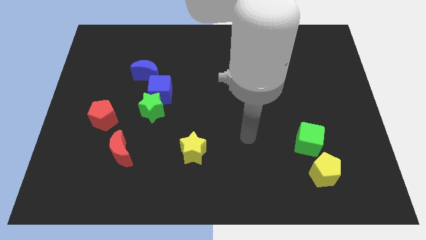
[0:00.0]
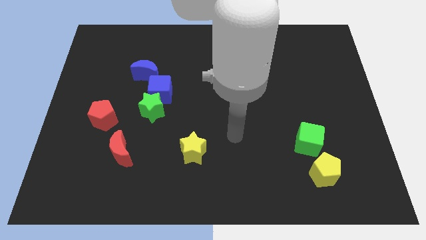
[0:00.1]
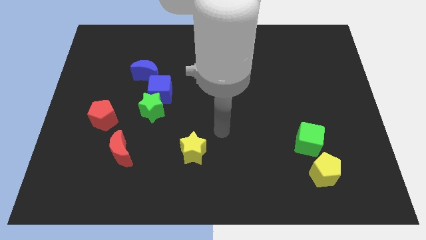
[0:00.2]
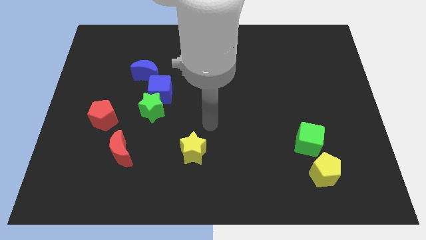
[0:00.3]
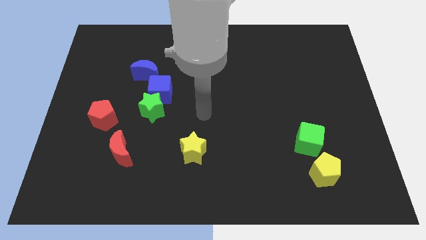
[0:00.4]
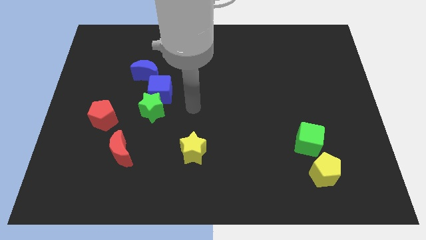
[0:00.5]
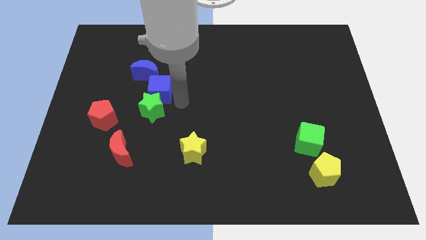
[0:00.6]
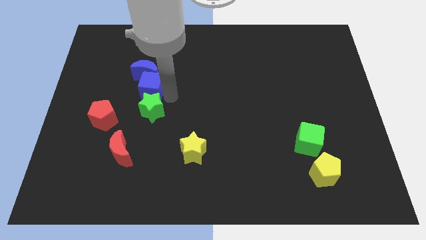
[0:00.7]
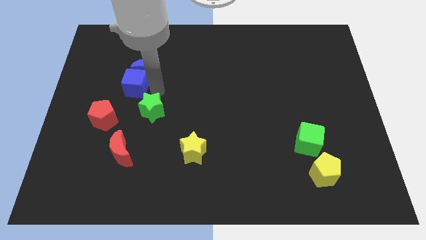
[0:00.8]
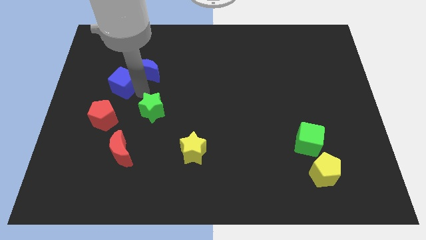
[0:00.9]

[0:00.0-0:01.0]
pull the green star apart from the blue cube

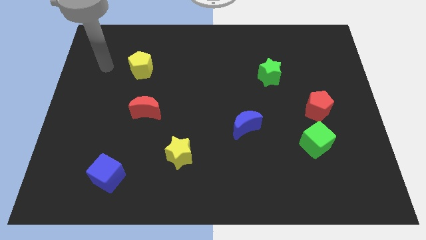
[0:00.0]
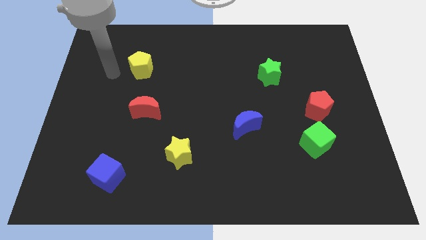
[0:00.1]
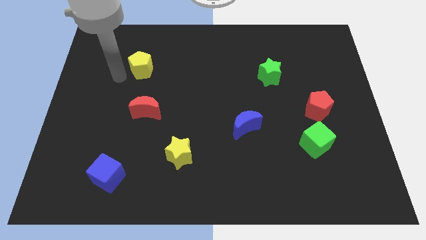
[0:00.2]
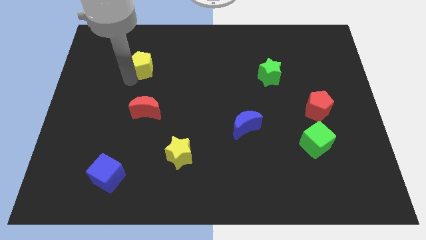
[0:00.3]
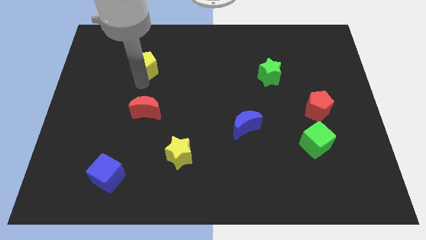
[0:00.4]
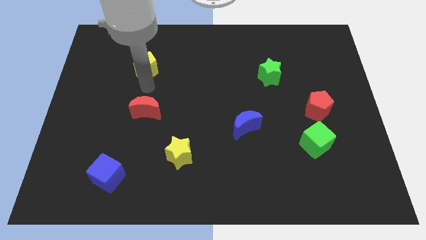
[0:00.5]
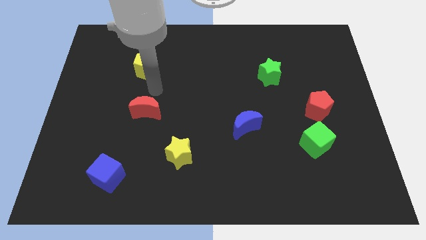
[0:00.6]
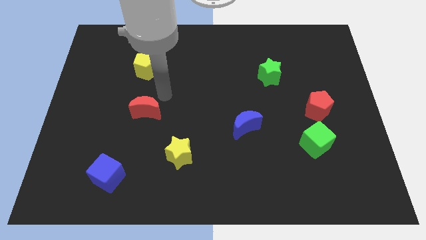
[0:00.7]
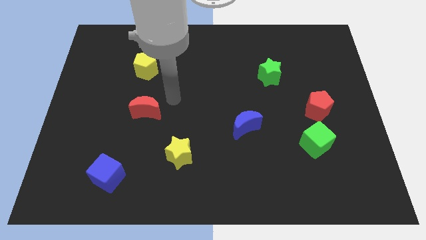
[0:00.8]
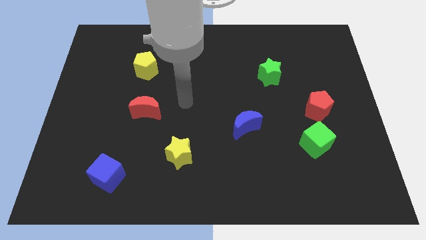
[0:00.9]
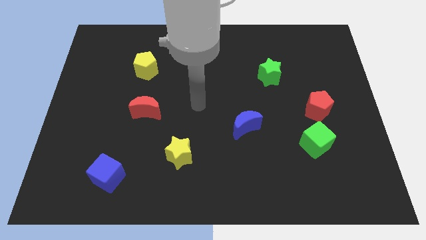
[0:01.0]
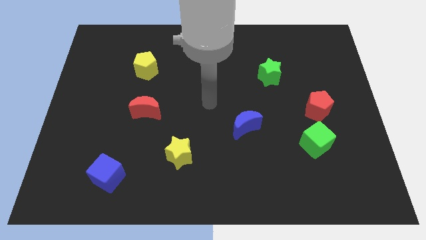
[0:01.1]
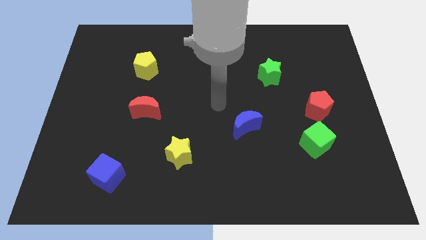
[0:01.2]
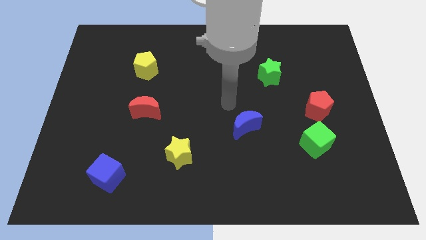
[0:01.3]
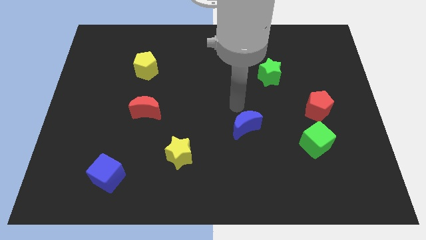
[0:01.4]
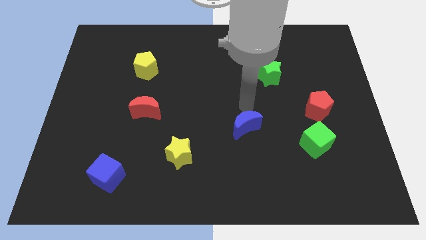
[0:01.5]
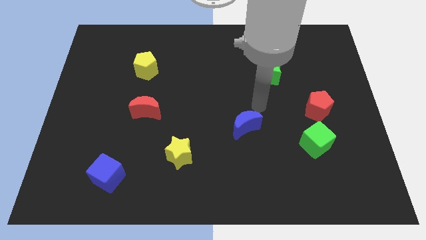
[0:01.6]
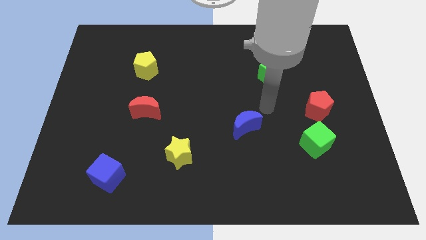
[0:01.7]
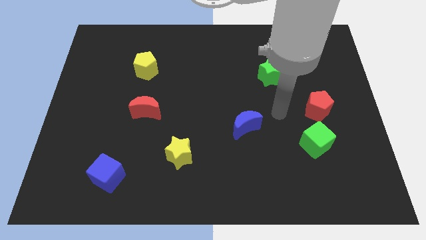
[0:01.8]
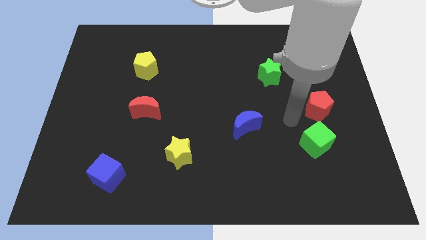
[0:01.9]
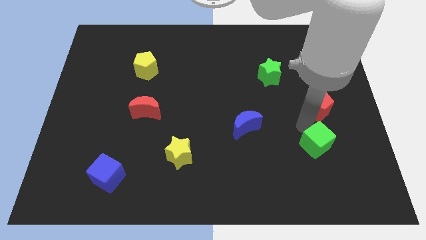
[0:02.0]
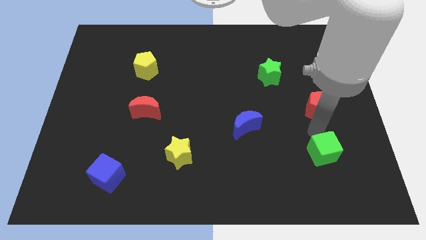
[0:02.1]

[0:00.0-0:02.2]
pull the red pentagon apart from the green cube

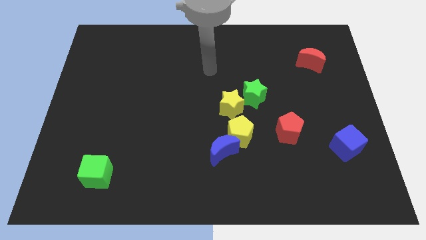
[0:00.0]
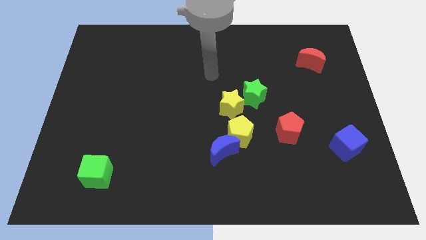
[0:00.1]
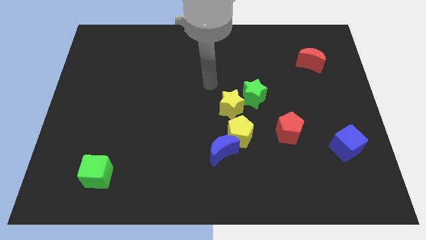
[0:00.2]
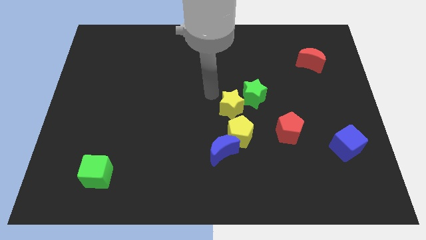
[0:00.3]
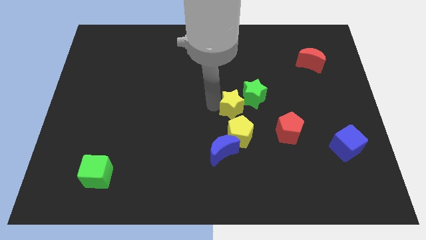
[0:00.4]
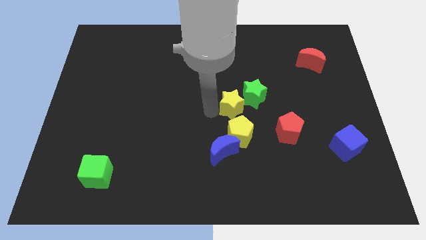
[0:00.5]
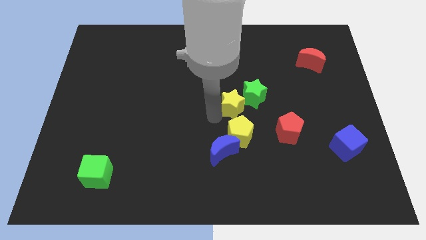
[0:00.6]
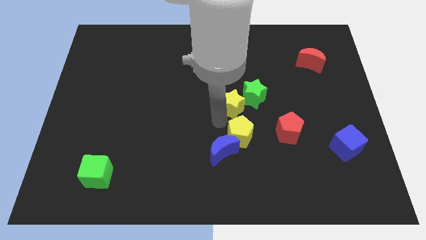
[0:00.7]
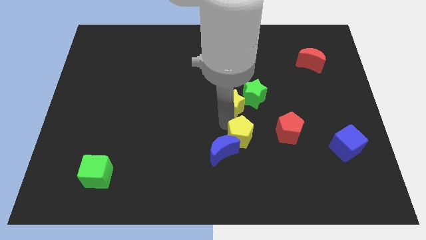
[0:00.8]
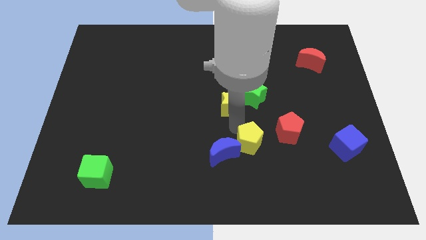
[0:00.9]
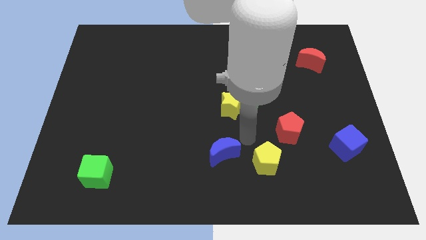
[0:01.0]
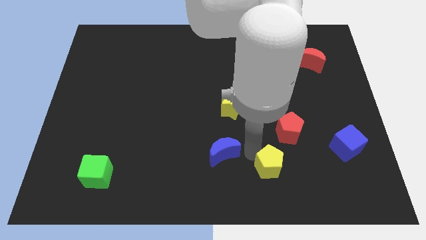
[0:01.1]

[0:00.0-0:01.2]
pull the blue moon apart from the yellow pentagon

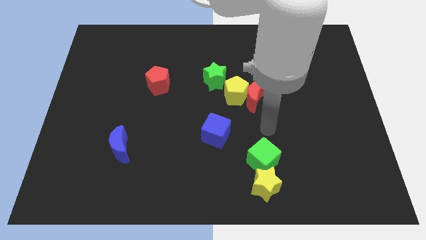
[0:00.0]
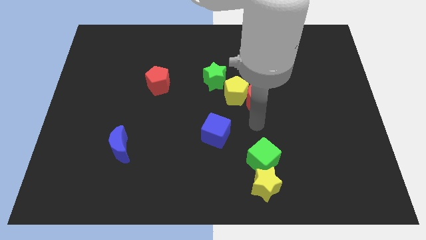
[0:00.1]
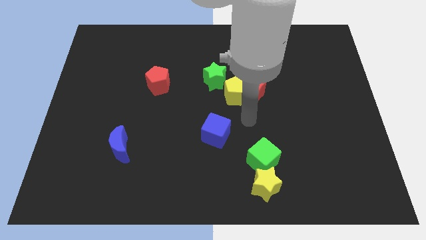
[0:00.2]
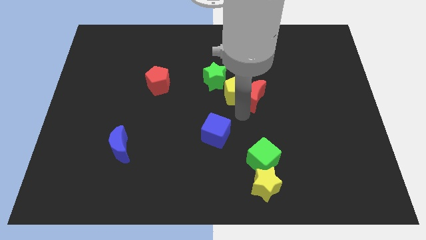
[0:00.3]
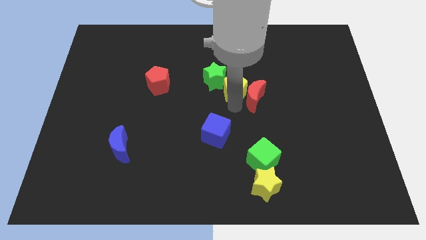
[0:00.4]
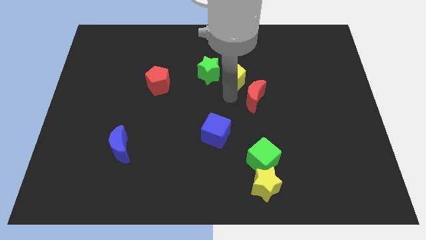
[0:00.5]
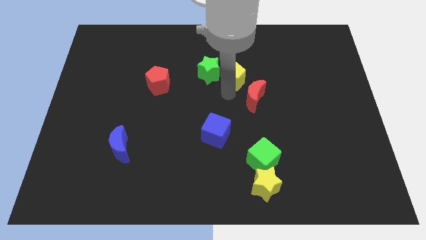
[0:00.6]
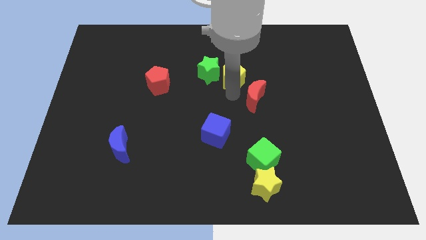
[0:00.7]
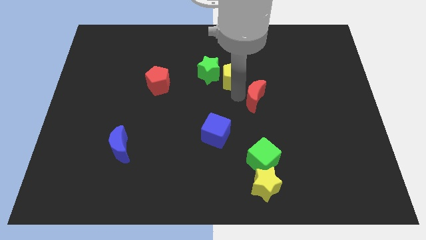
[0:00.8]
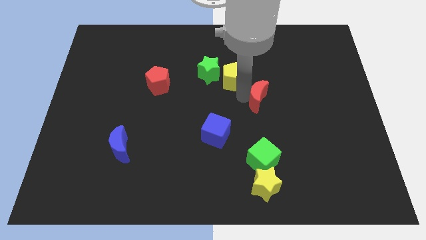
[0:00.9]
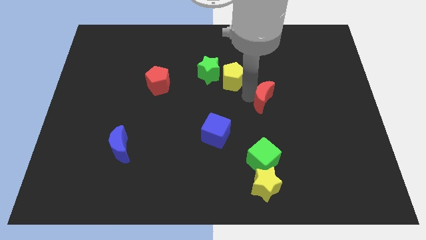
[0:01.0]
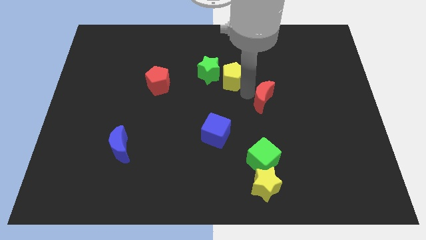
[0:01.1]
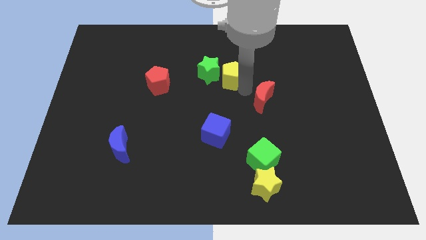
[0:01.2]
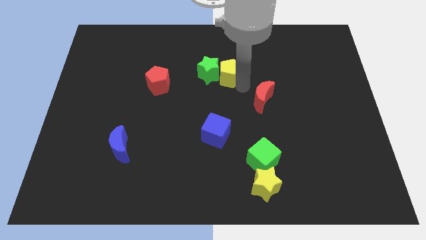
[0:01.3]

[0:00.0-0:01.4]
pull the red moon apart from the yellow pentagon

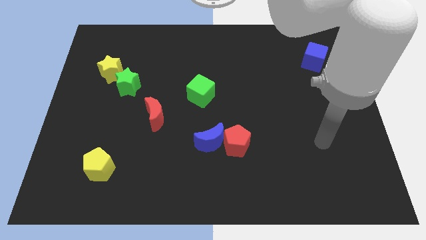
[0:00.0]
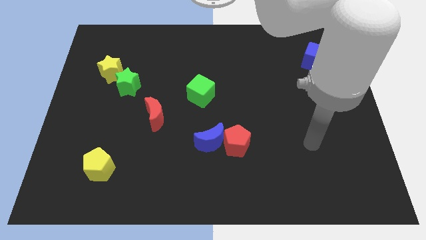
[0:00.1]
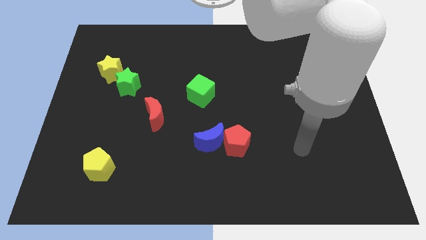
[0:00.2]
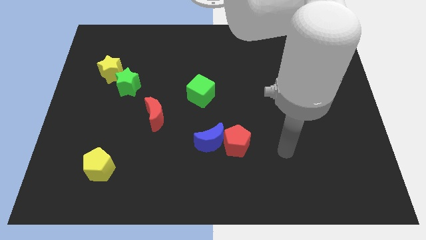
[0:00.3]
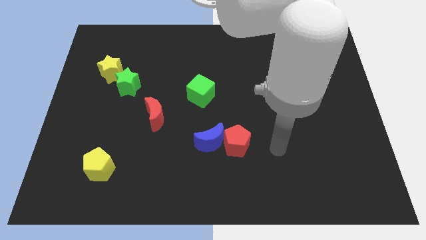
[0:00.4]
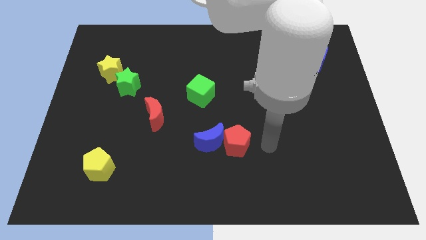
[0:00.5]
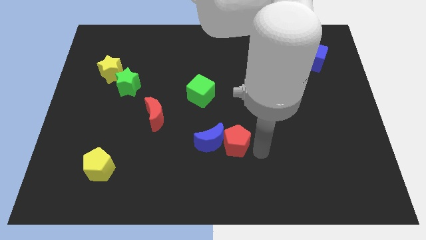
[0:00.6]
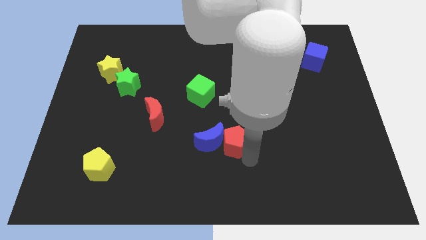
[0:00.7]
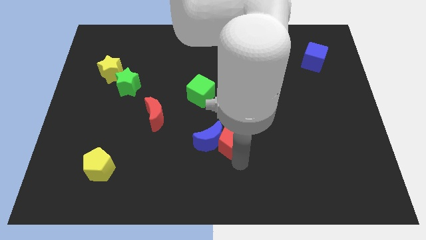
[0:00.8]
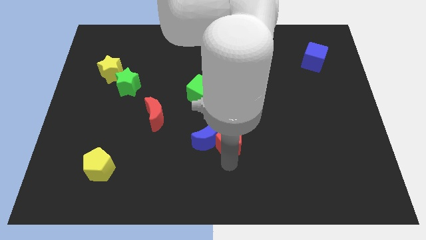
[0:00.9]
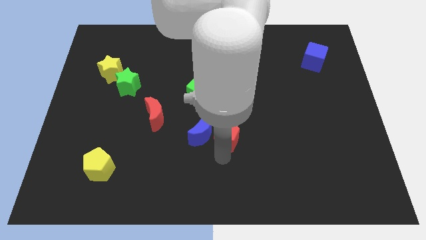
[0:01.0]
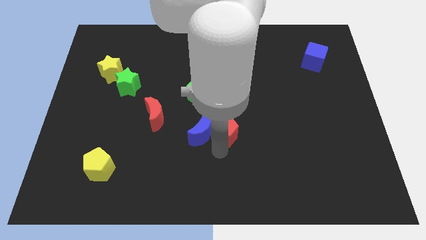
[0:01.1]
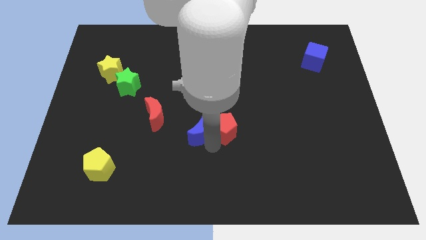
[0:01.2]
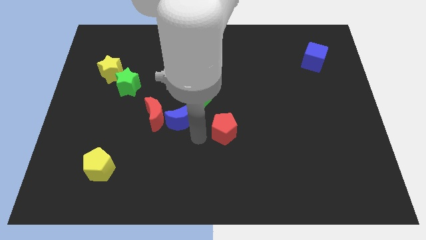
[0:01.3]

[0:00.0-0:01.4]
separate the red pentagon from the blue moon

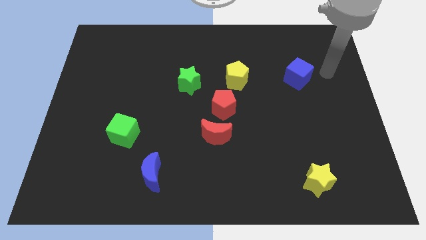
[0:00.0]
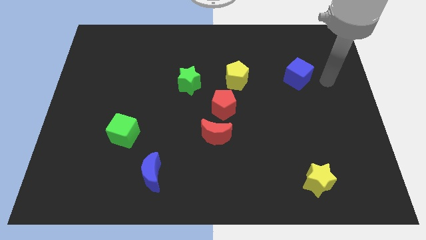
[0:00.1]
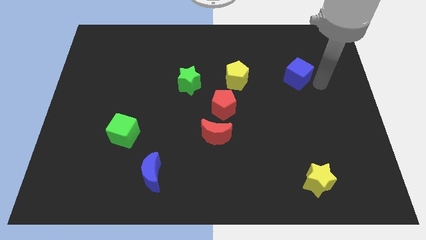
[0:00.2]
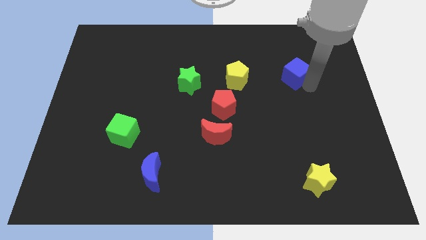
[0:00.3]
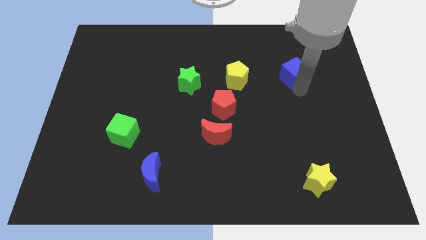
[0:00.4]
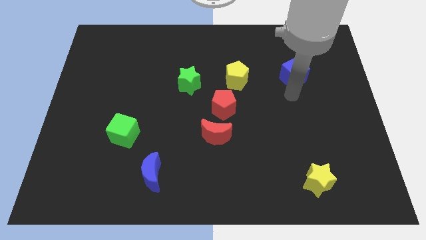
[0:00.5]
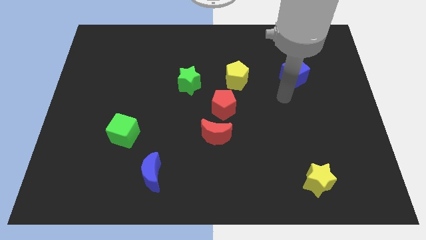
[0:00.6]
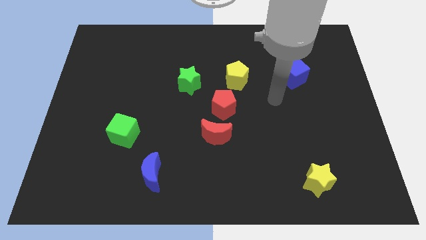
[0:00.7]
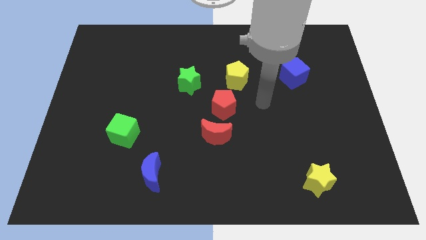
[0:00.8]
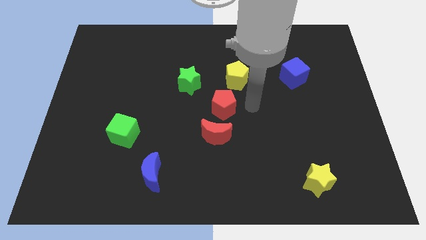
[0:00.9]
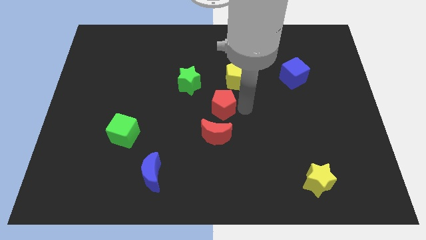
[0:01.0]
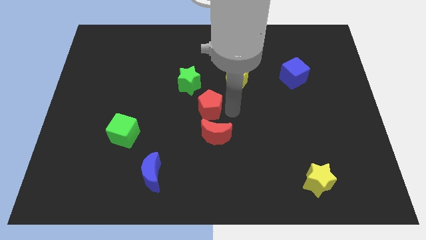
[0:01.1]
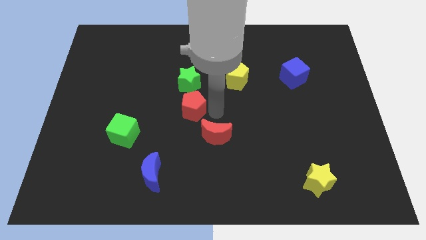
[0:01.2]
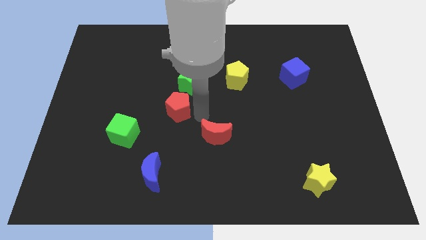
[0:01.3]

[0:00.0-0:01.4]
move the red moon away from the red pentagon

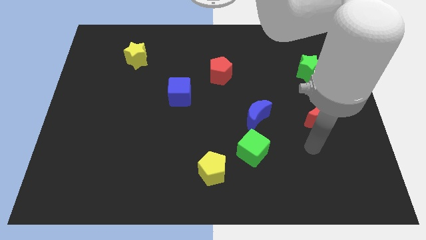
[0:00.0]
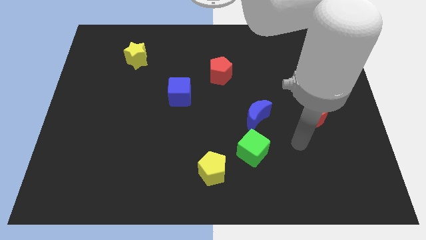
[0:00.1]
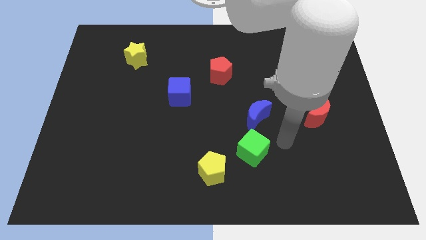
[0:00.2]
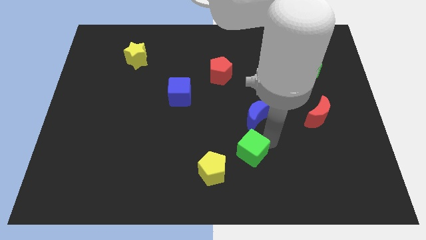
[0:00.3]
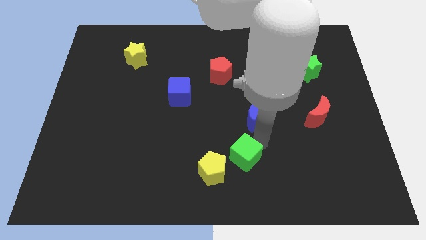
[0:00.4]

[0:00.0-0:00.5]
separate the blue moon from the green cube

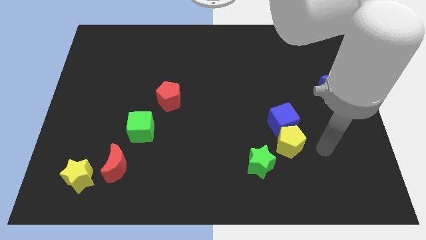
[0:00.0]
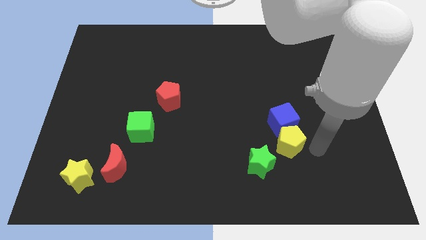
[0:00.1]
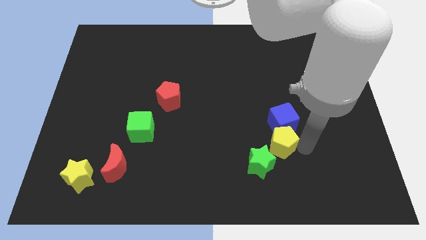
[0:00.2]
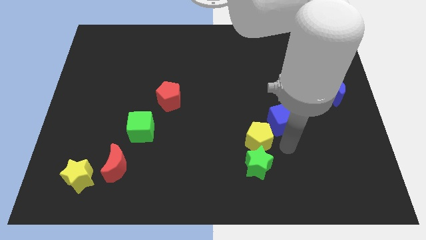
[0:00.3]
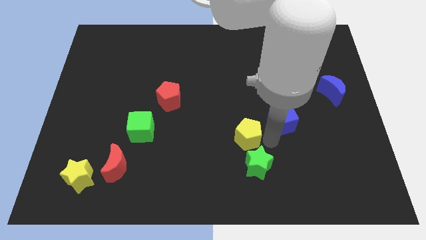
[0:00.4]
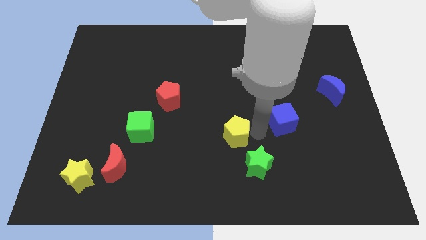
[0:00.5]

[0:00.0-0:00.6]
separate the blue cube from the yellow pentagon
